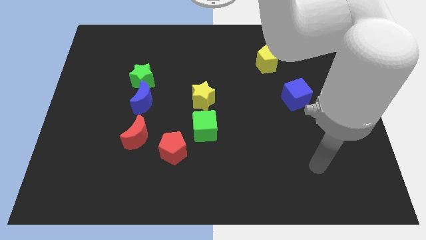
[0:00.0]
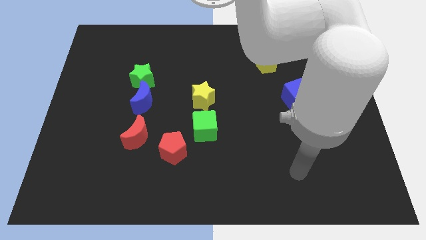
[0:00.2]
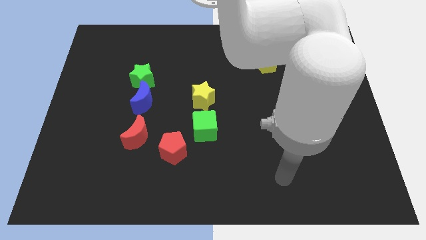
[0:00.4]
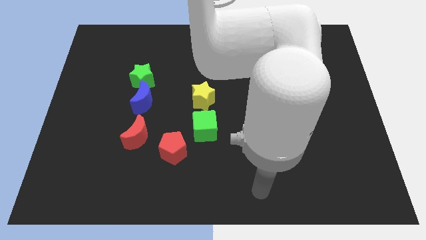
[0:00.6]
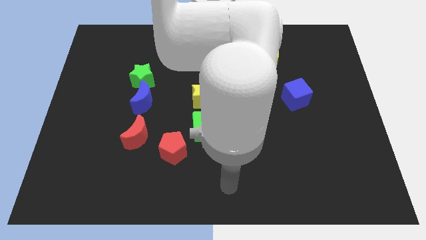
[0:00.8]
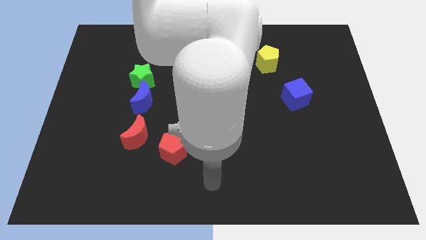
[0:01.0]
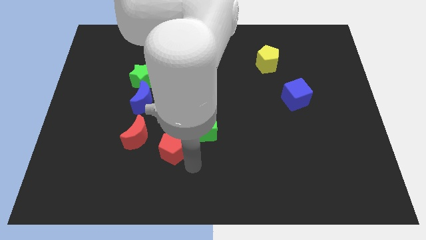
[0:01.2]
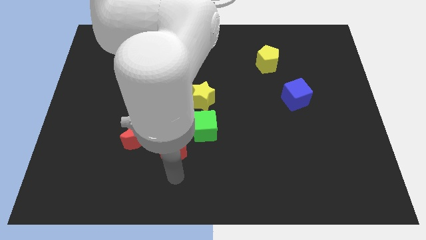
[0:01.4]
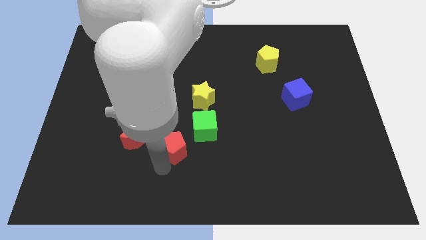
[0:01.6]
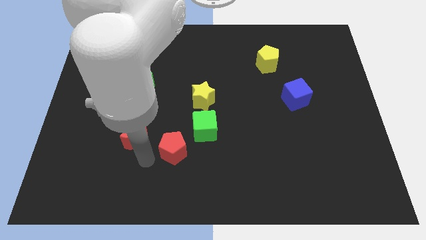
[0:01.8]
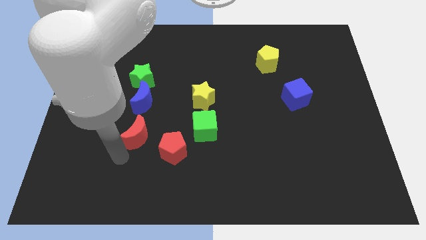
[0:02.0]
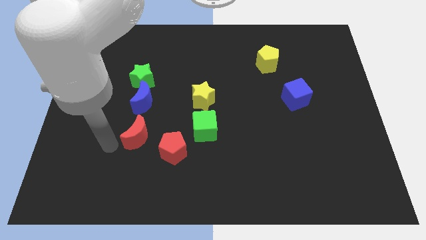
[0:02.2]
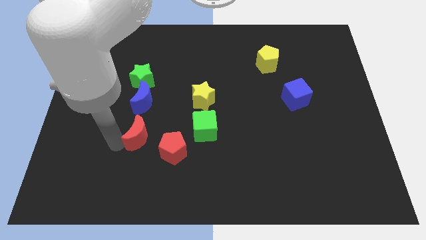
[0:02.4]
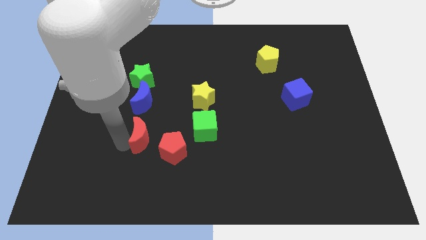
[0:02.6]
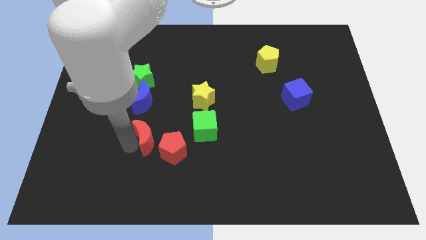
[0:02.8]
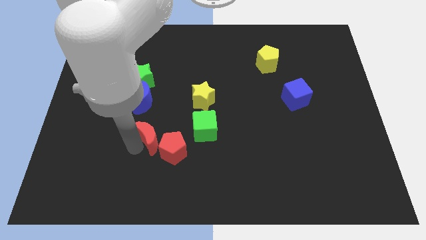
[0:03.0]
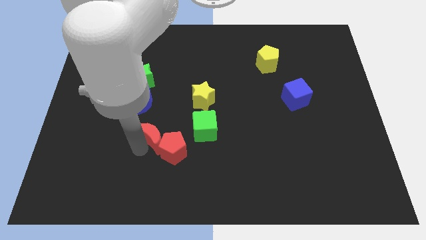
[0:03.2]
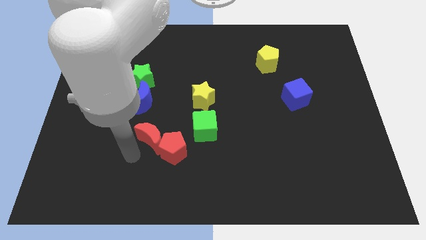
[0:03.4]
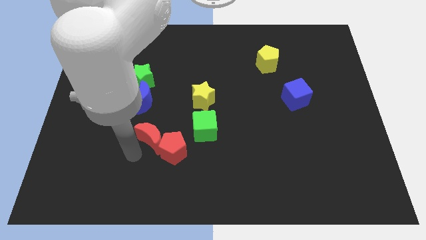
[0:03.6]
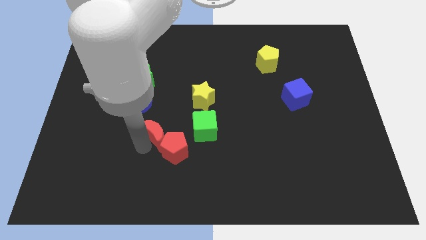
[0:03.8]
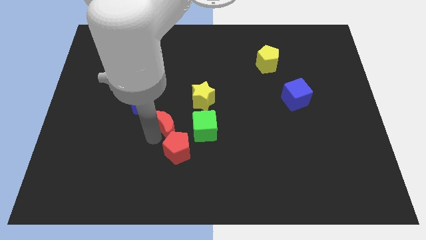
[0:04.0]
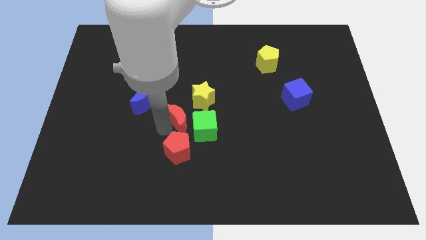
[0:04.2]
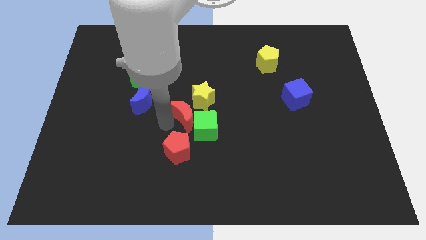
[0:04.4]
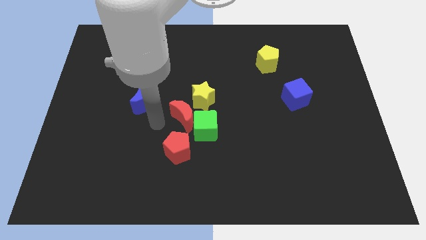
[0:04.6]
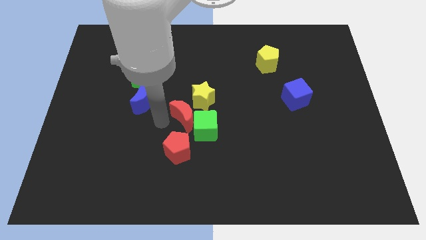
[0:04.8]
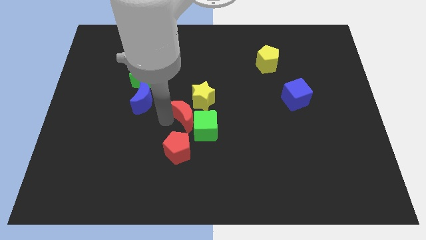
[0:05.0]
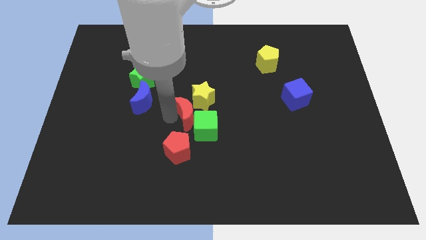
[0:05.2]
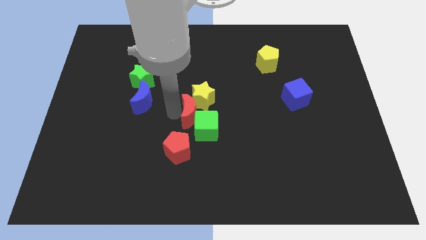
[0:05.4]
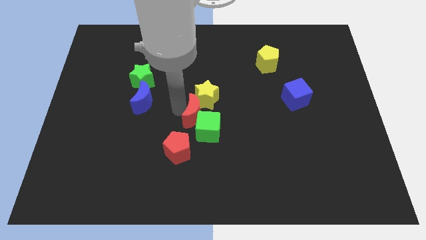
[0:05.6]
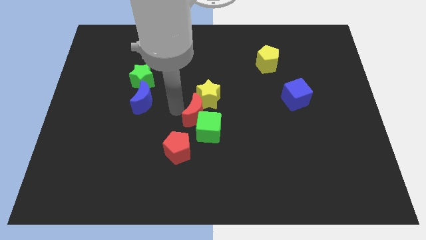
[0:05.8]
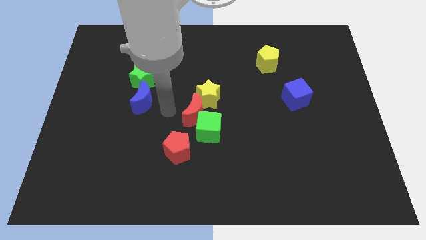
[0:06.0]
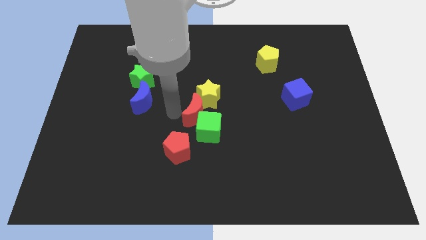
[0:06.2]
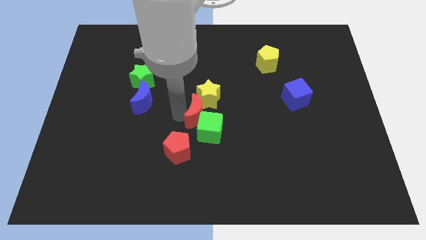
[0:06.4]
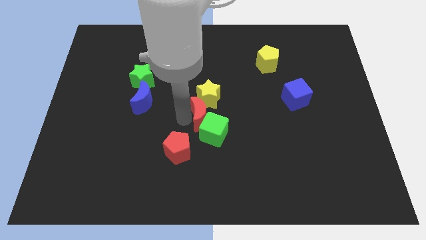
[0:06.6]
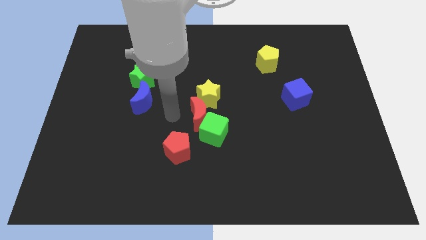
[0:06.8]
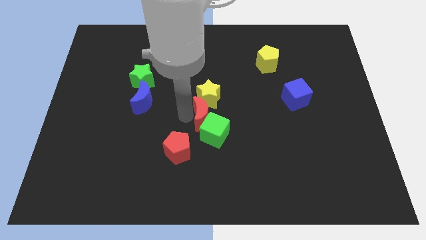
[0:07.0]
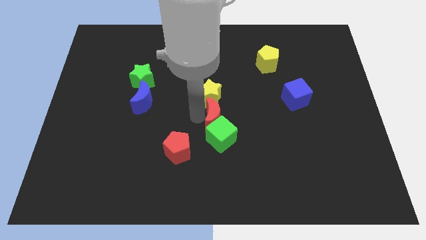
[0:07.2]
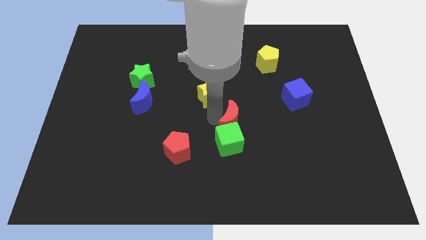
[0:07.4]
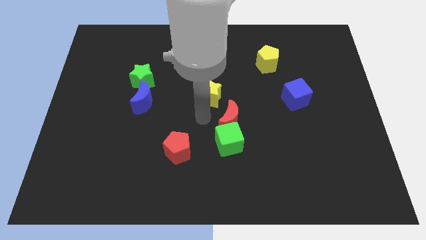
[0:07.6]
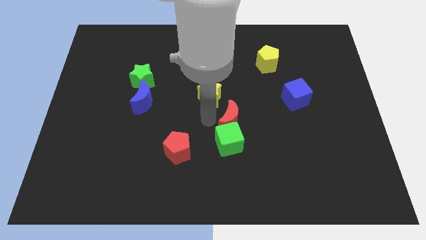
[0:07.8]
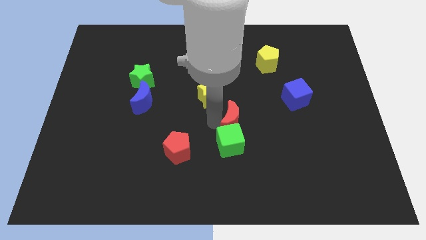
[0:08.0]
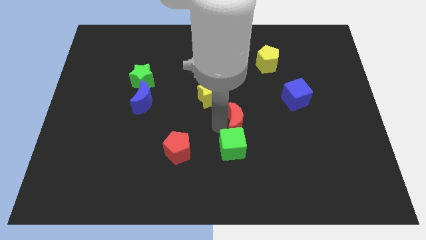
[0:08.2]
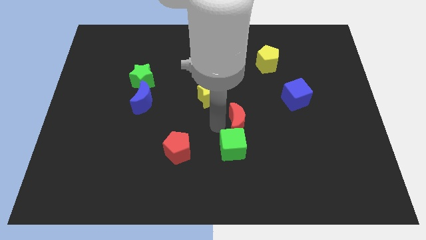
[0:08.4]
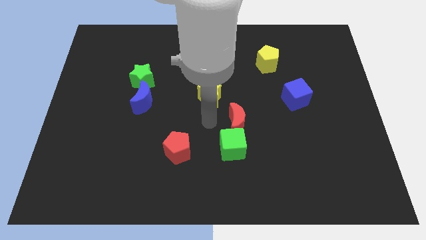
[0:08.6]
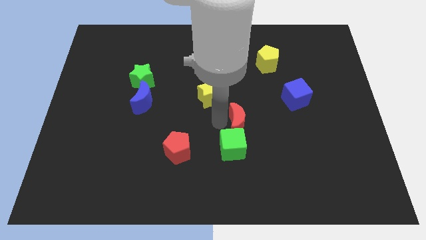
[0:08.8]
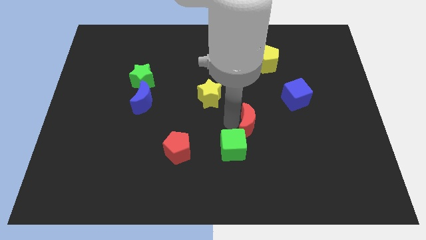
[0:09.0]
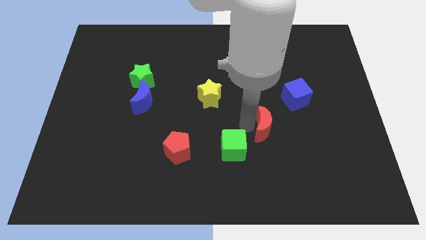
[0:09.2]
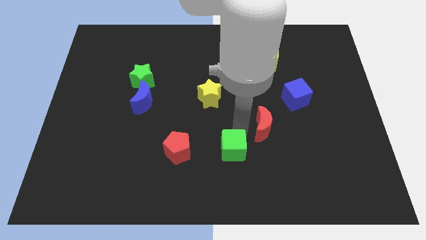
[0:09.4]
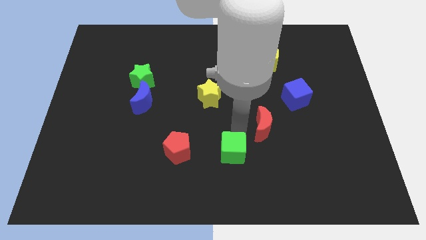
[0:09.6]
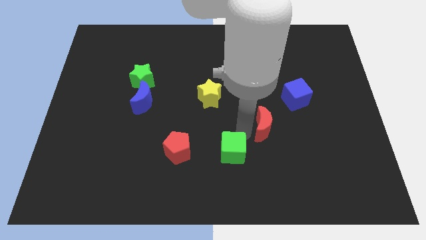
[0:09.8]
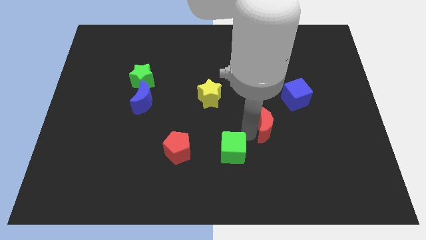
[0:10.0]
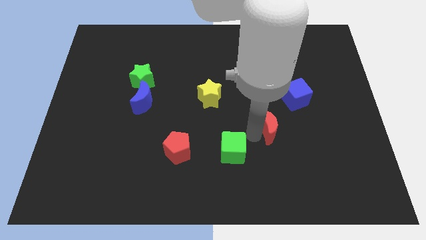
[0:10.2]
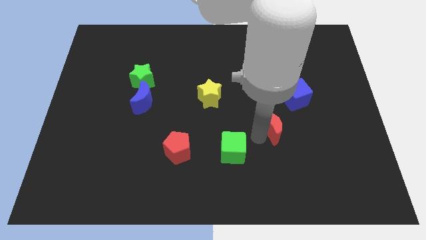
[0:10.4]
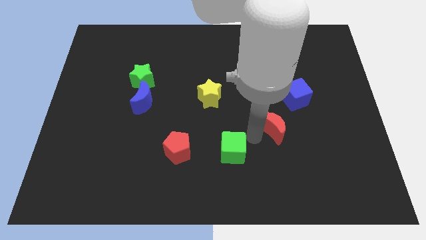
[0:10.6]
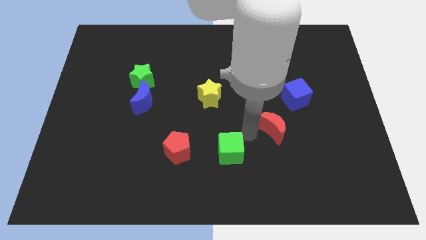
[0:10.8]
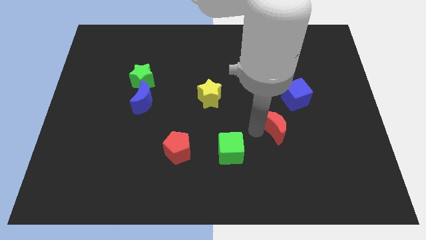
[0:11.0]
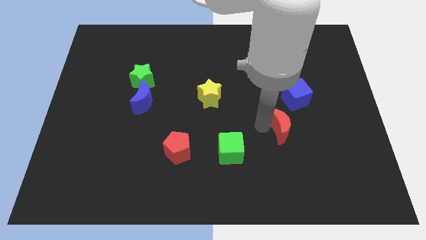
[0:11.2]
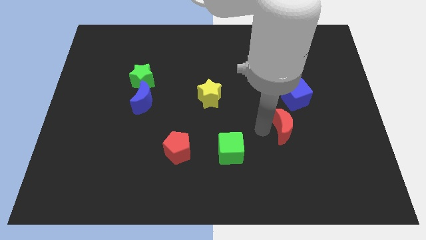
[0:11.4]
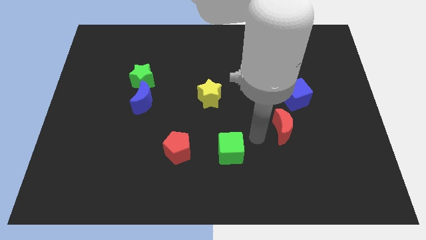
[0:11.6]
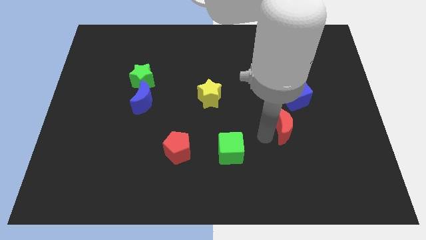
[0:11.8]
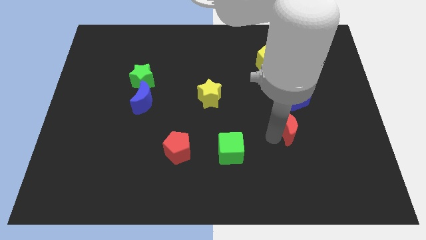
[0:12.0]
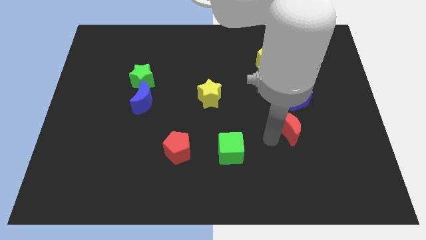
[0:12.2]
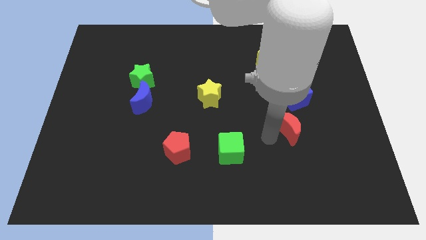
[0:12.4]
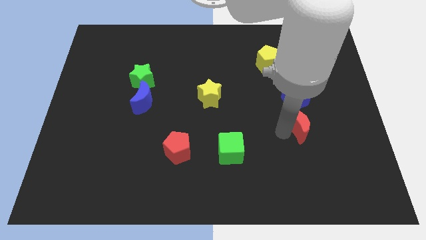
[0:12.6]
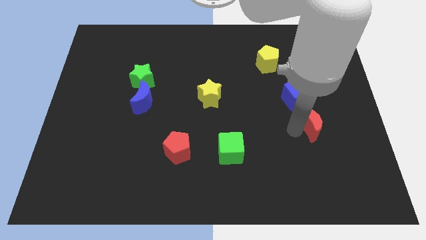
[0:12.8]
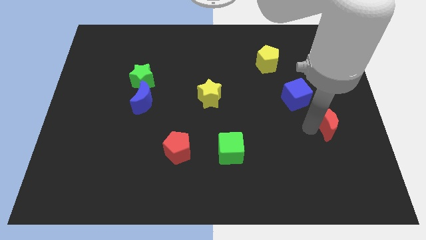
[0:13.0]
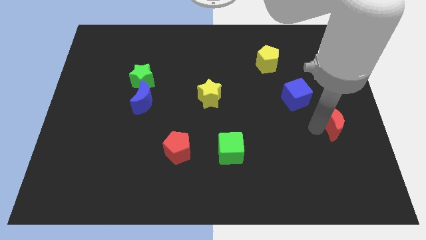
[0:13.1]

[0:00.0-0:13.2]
move the red moon to the center right
